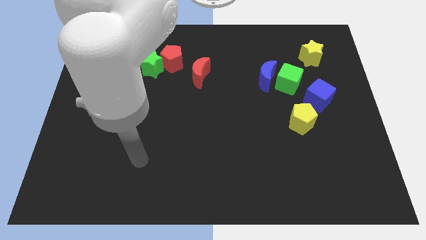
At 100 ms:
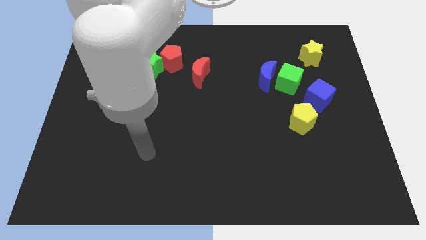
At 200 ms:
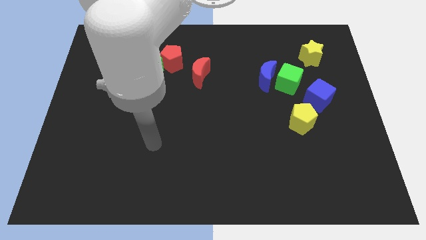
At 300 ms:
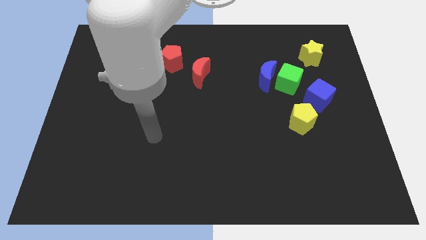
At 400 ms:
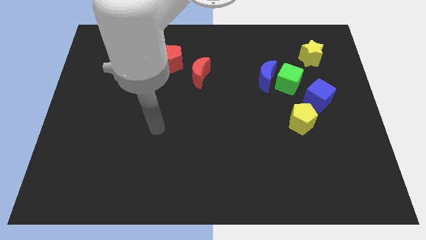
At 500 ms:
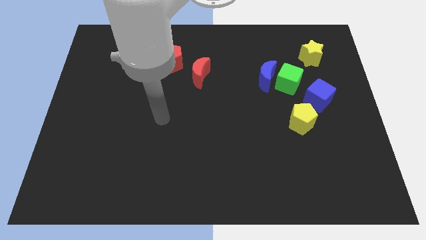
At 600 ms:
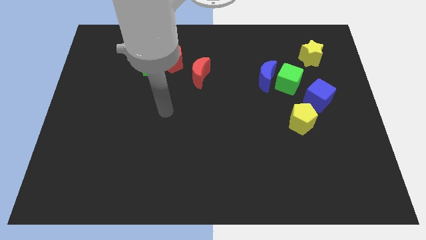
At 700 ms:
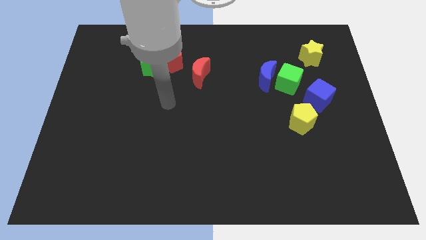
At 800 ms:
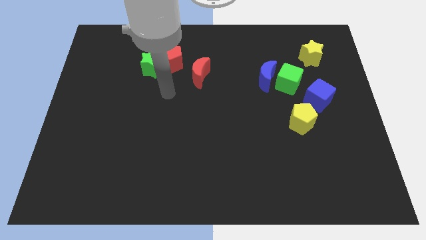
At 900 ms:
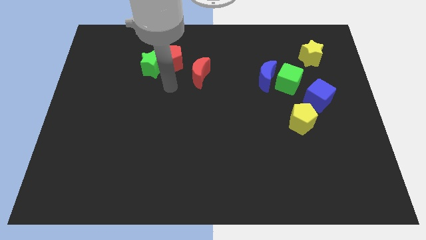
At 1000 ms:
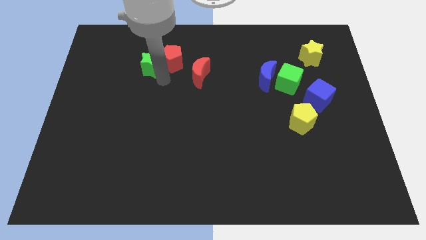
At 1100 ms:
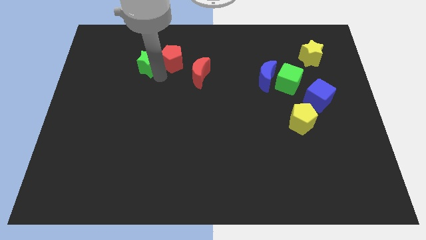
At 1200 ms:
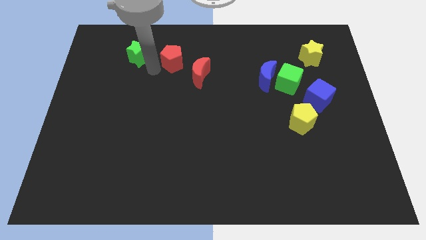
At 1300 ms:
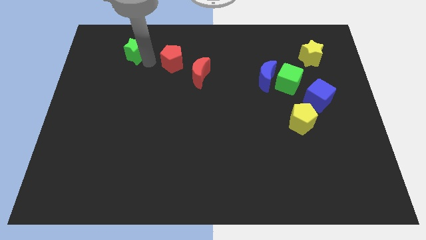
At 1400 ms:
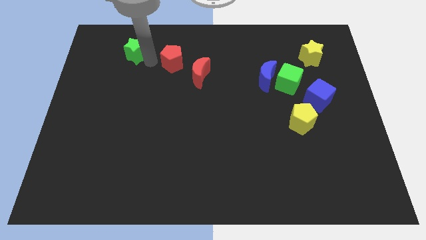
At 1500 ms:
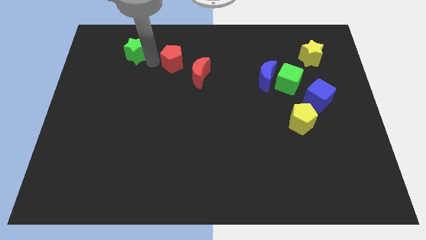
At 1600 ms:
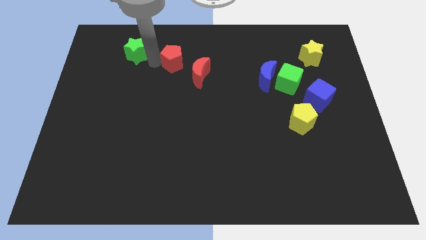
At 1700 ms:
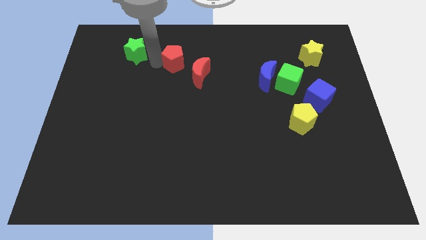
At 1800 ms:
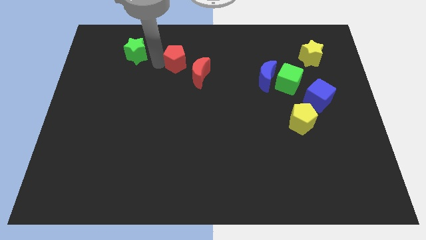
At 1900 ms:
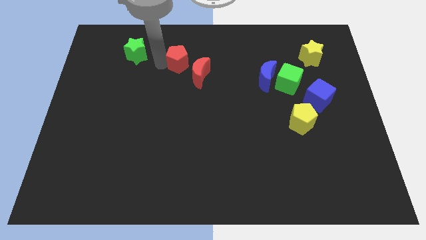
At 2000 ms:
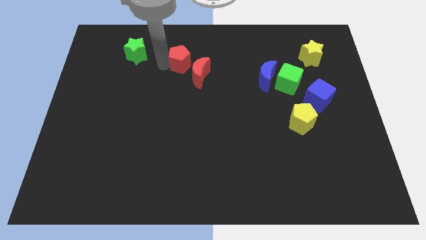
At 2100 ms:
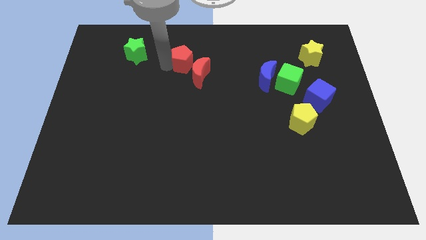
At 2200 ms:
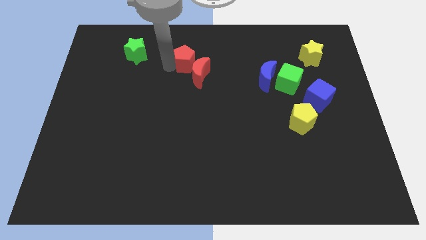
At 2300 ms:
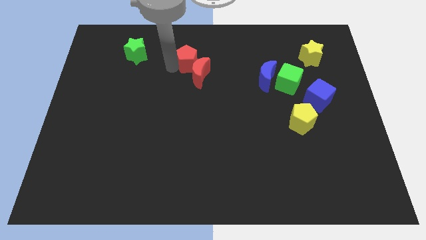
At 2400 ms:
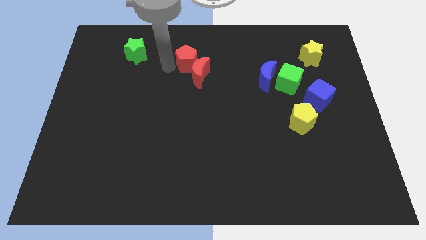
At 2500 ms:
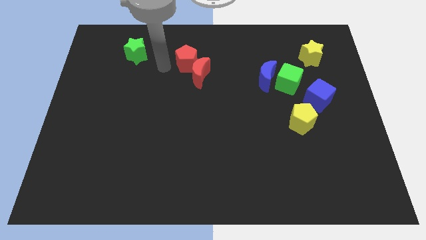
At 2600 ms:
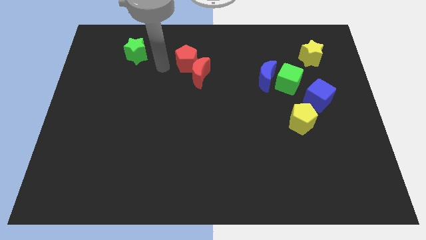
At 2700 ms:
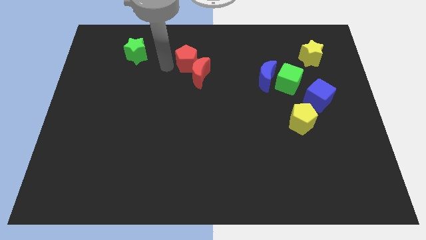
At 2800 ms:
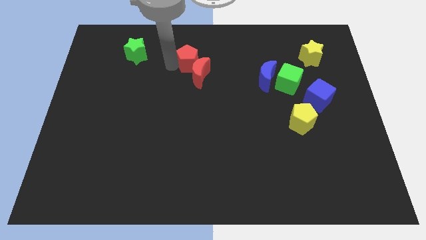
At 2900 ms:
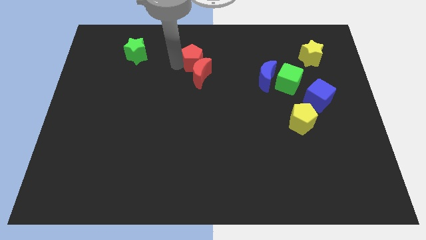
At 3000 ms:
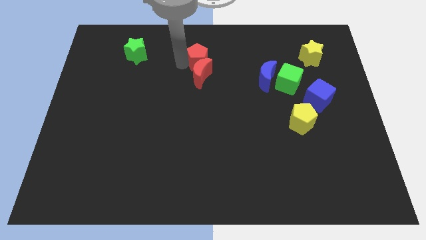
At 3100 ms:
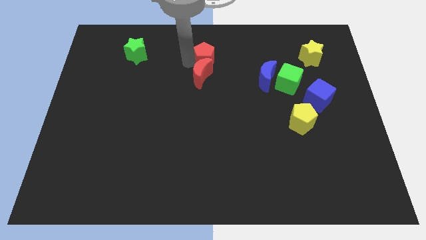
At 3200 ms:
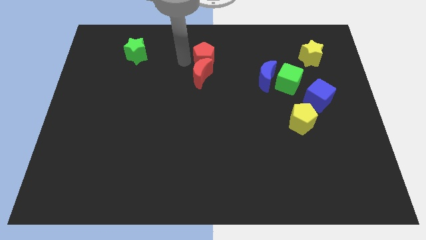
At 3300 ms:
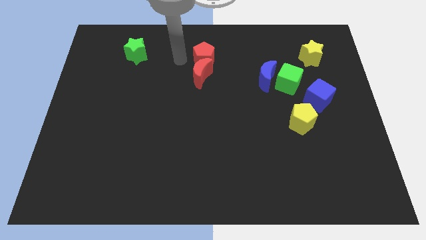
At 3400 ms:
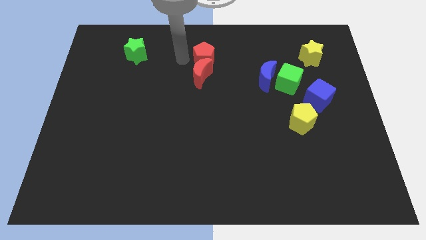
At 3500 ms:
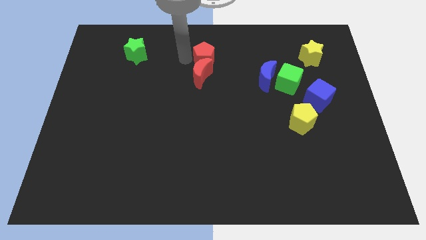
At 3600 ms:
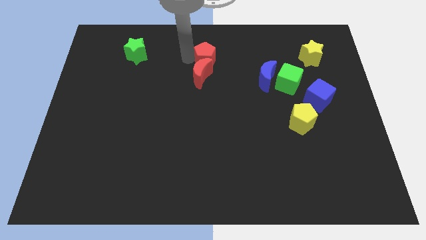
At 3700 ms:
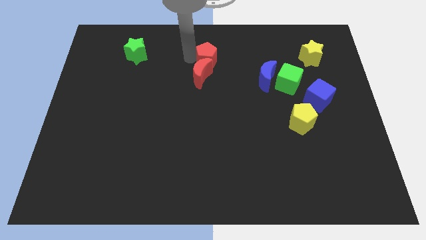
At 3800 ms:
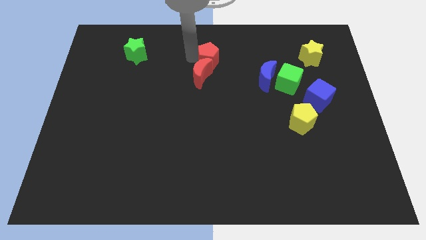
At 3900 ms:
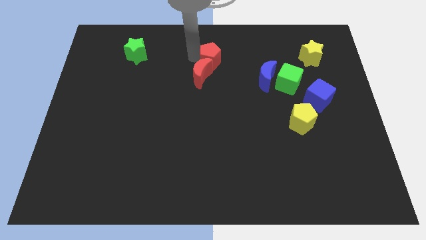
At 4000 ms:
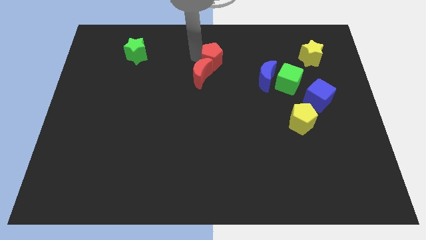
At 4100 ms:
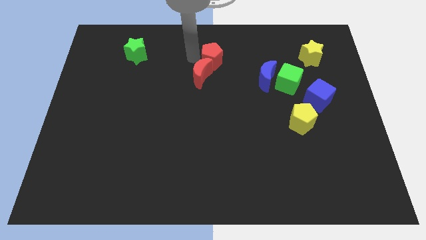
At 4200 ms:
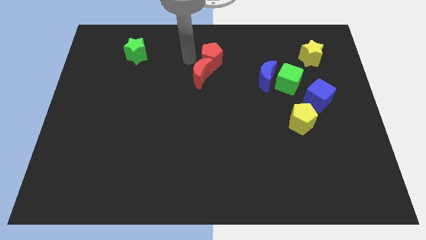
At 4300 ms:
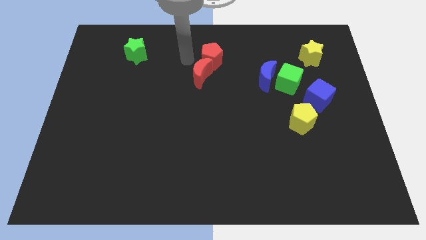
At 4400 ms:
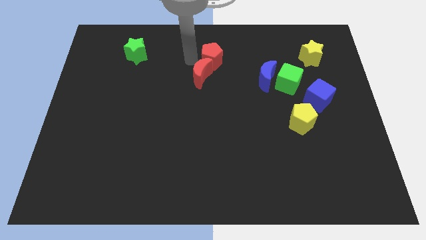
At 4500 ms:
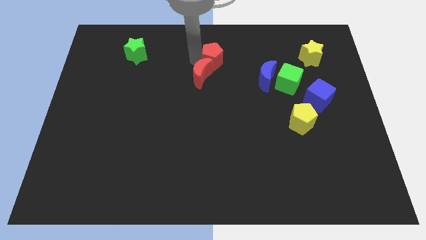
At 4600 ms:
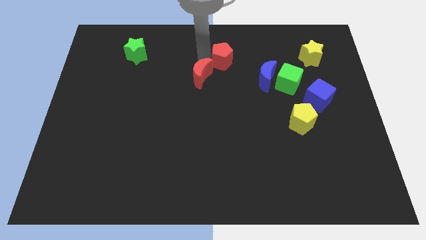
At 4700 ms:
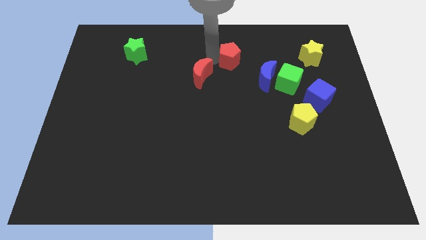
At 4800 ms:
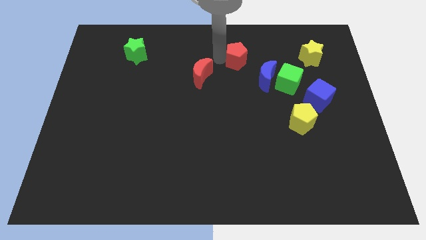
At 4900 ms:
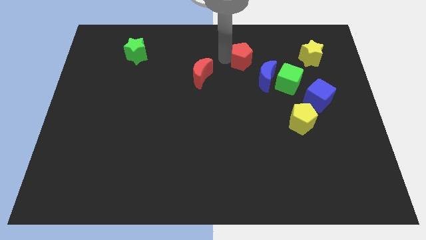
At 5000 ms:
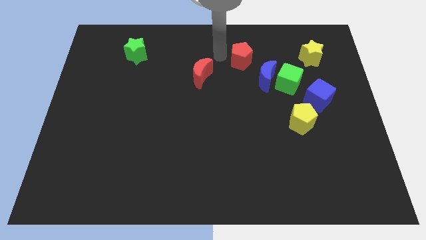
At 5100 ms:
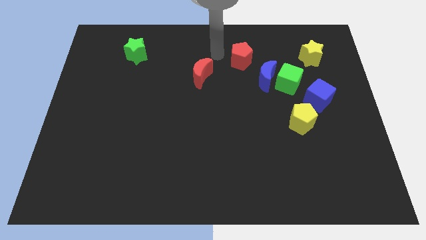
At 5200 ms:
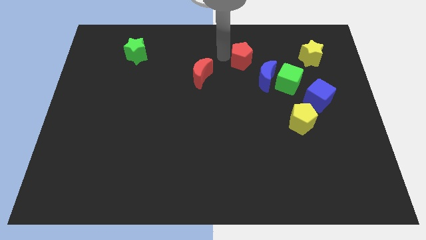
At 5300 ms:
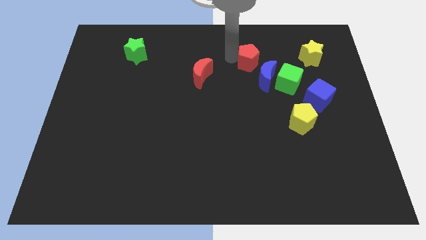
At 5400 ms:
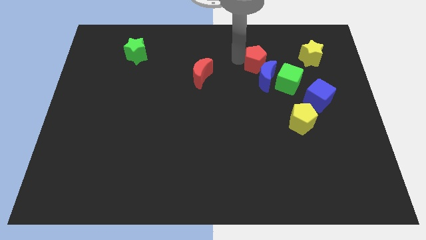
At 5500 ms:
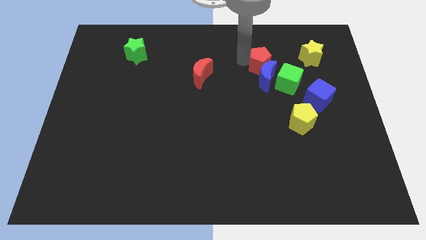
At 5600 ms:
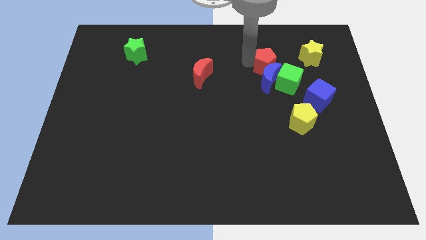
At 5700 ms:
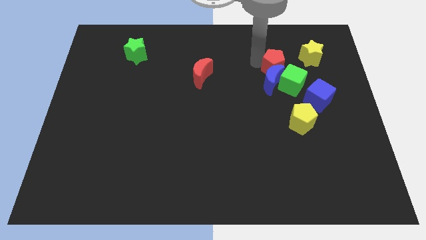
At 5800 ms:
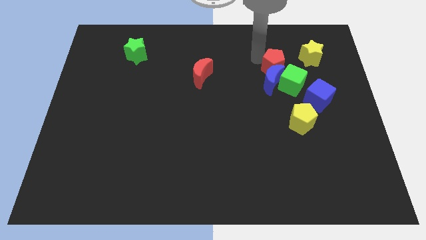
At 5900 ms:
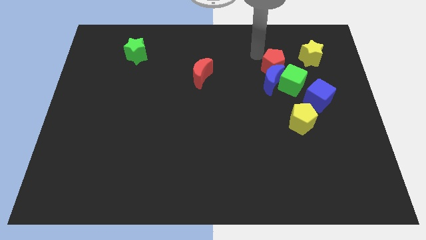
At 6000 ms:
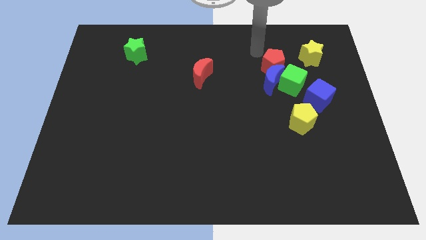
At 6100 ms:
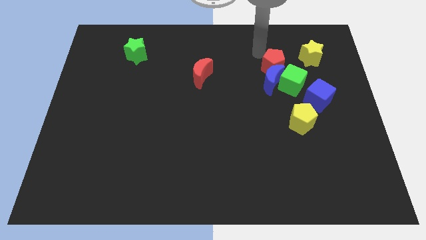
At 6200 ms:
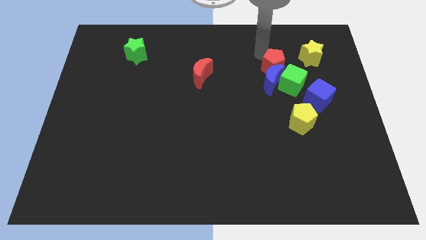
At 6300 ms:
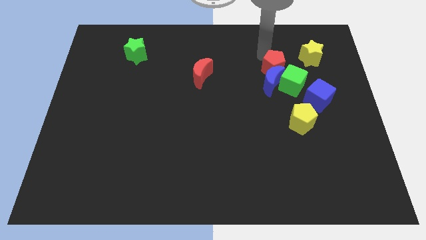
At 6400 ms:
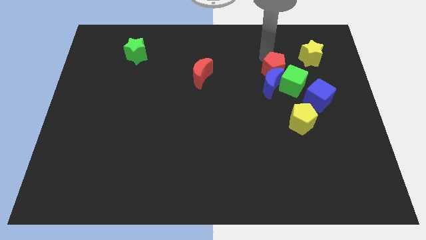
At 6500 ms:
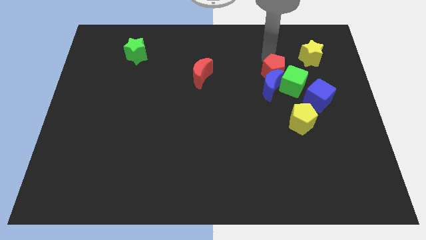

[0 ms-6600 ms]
push the red pentagon towards the green cube

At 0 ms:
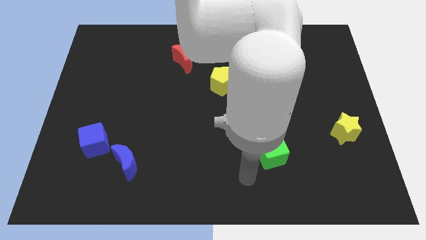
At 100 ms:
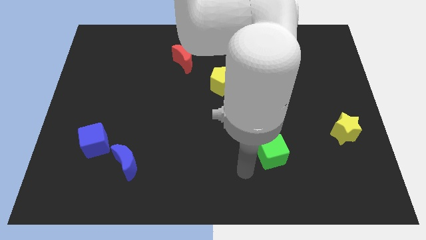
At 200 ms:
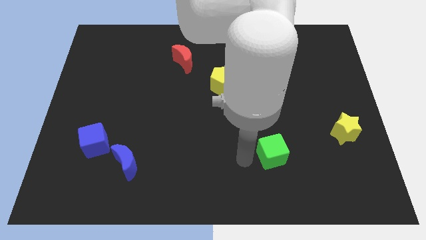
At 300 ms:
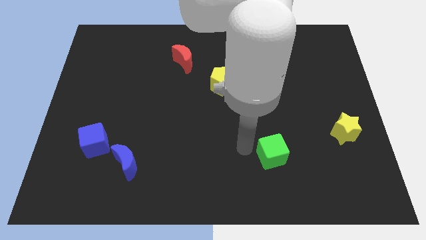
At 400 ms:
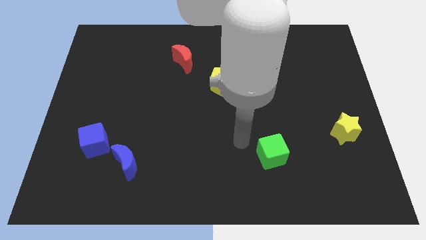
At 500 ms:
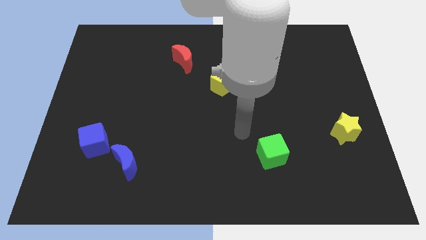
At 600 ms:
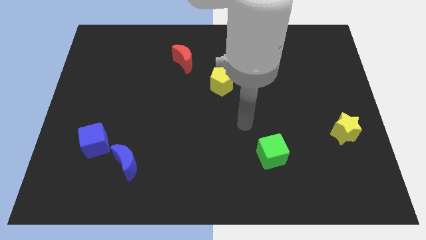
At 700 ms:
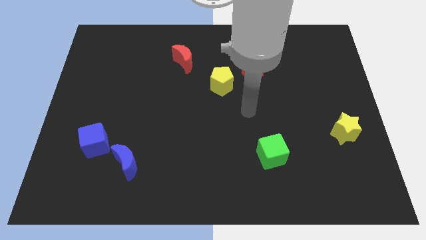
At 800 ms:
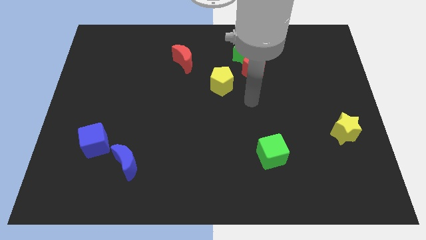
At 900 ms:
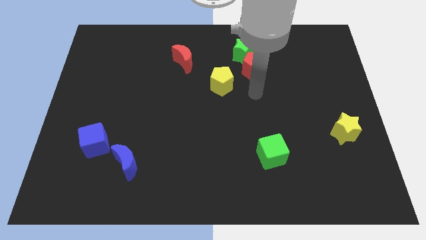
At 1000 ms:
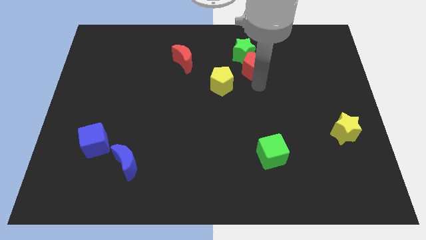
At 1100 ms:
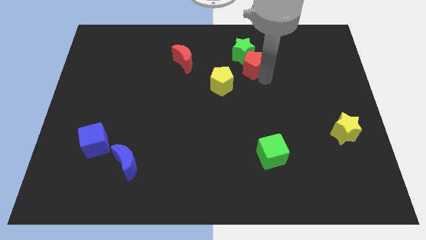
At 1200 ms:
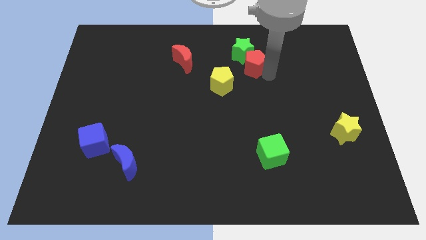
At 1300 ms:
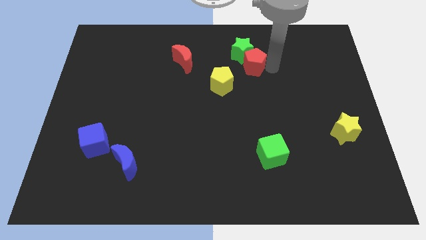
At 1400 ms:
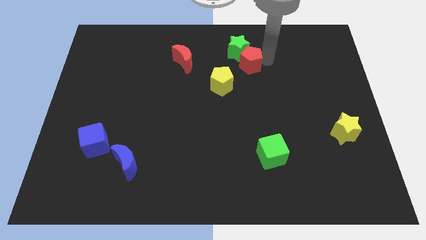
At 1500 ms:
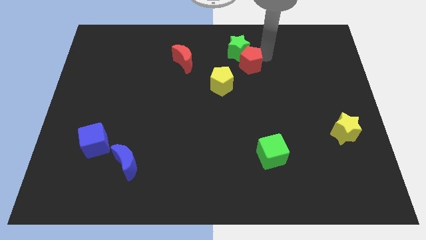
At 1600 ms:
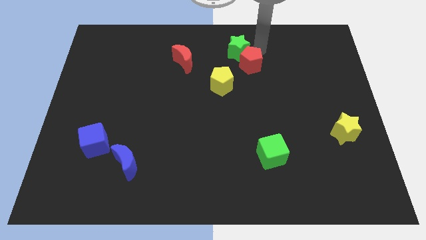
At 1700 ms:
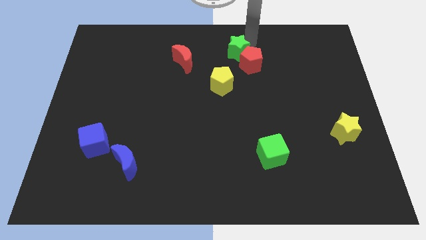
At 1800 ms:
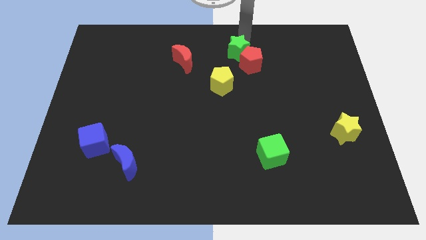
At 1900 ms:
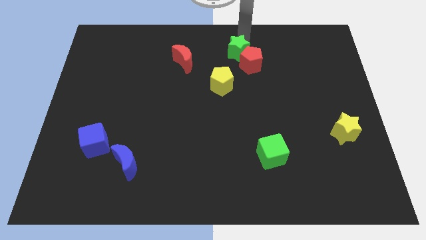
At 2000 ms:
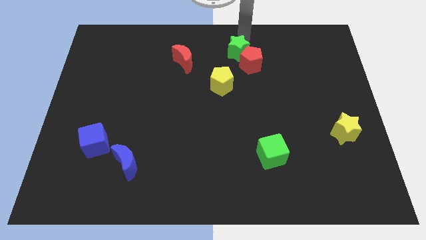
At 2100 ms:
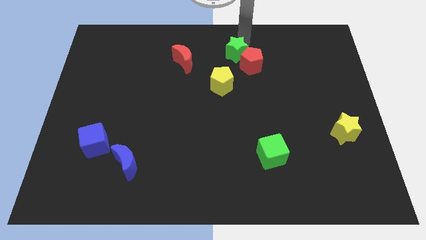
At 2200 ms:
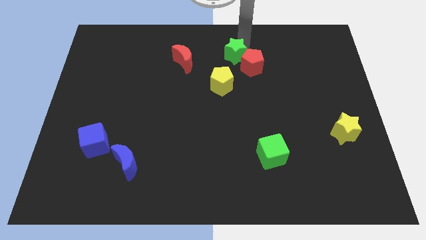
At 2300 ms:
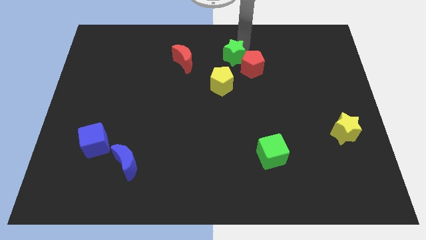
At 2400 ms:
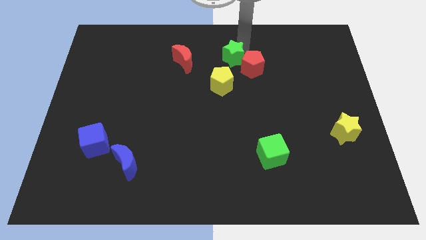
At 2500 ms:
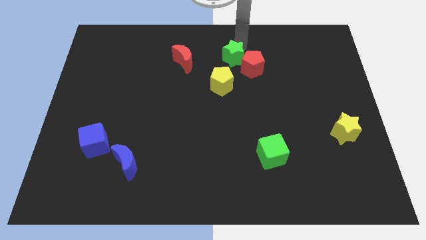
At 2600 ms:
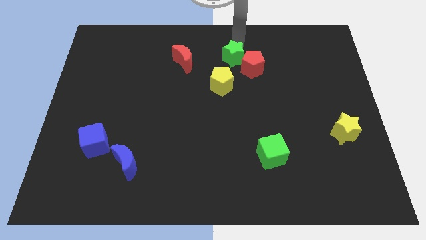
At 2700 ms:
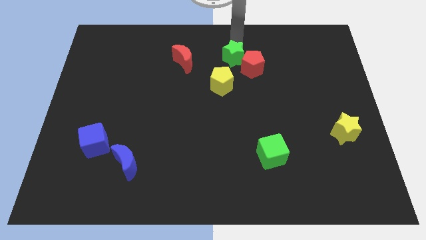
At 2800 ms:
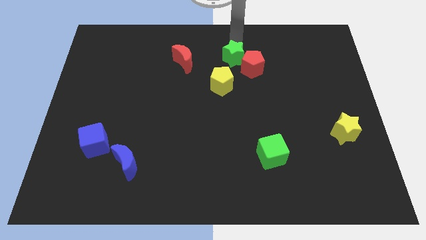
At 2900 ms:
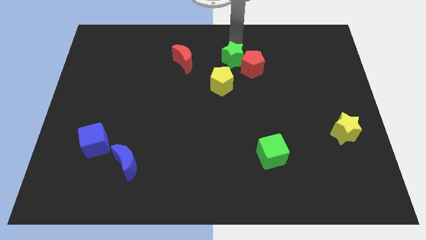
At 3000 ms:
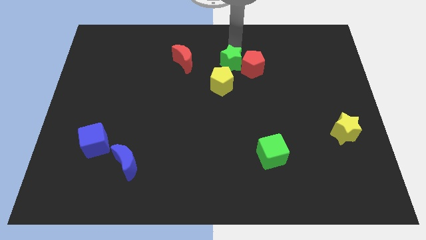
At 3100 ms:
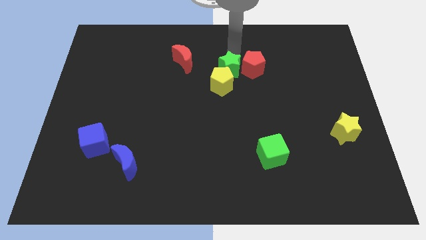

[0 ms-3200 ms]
put the green star towards the yellow pentagon
